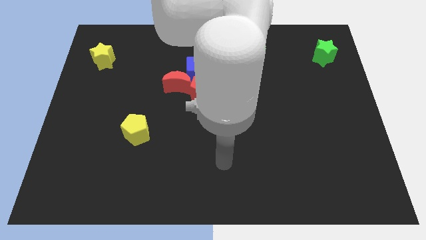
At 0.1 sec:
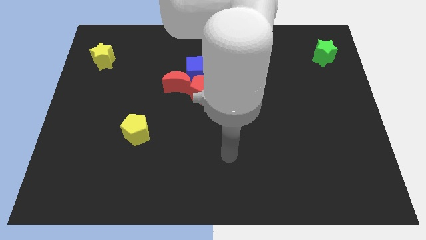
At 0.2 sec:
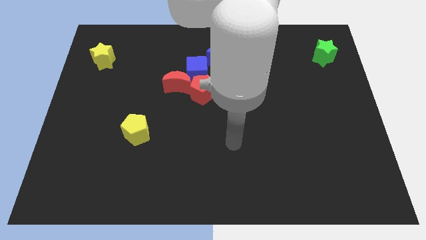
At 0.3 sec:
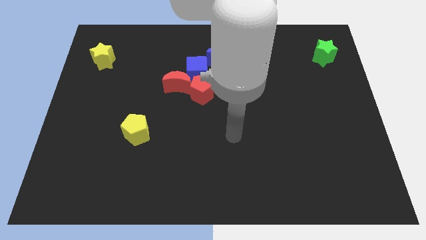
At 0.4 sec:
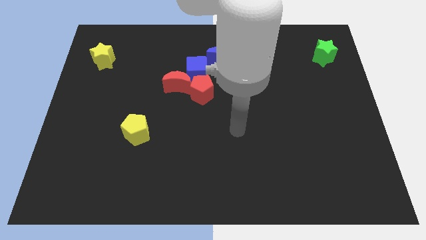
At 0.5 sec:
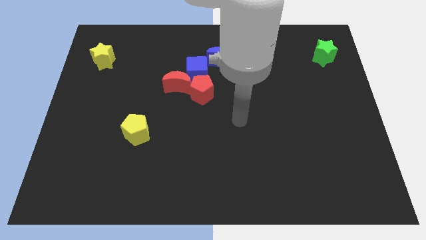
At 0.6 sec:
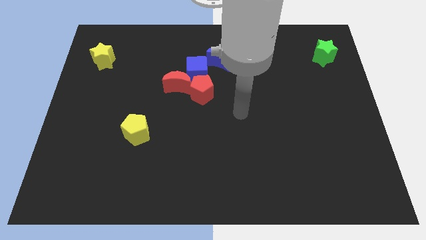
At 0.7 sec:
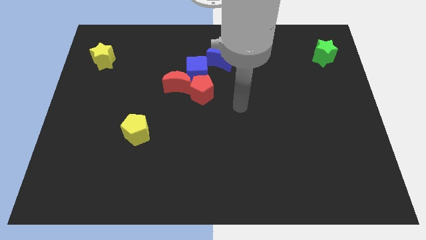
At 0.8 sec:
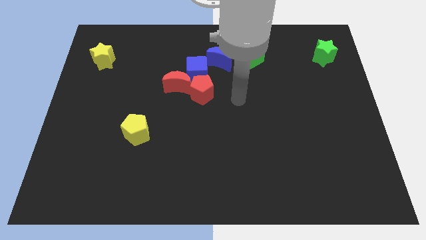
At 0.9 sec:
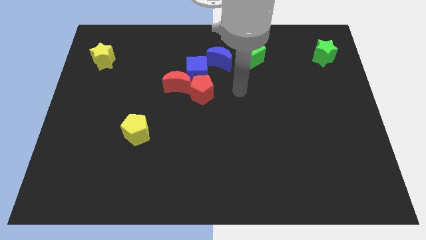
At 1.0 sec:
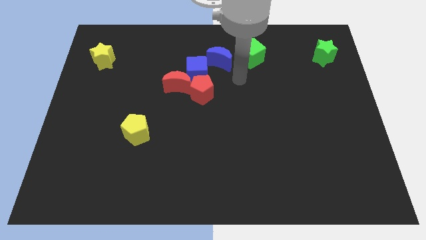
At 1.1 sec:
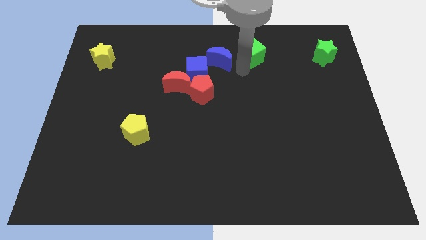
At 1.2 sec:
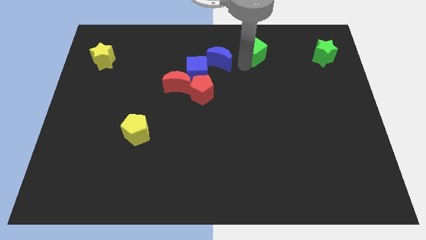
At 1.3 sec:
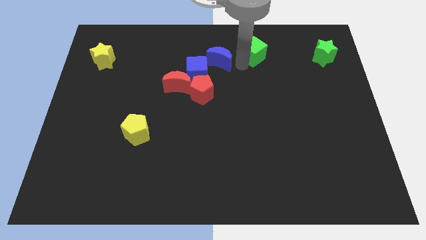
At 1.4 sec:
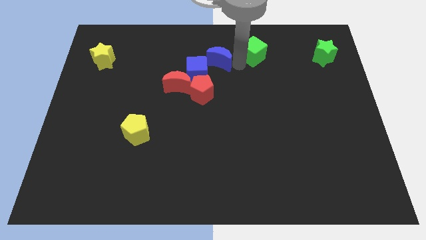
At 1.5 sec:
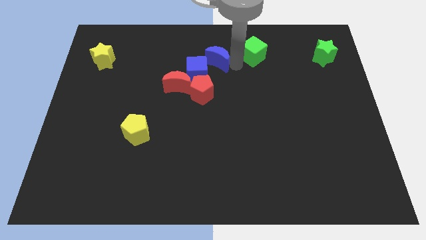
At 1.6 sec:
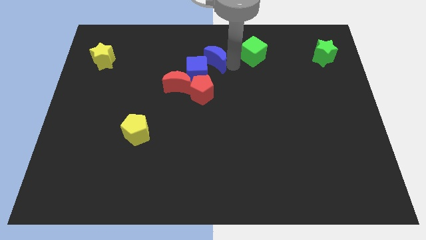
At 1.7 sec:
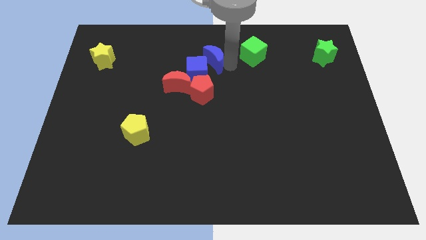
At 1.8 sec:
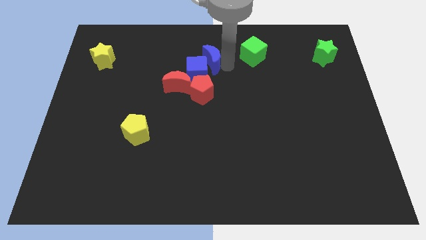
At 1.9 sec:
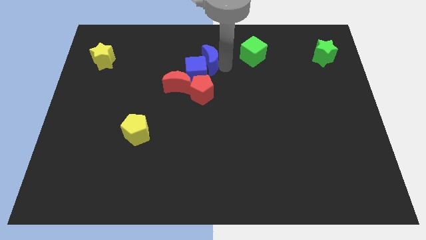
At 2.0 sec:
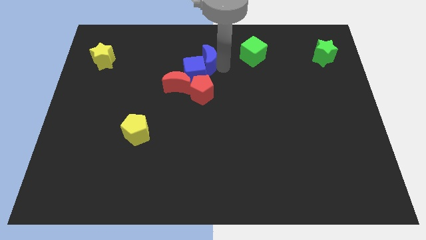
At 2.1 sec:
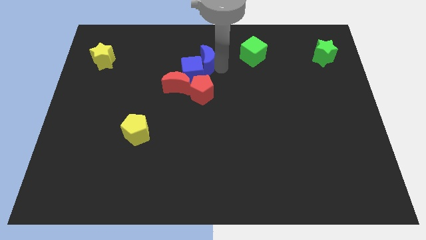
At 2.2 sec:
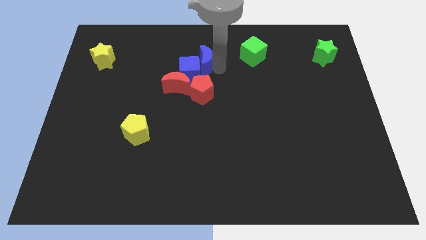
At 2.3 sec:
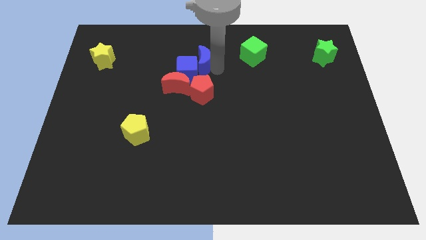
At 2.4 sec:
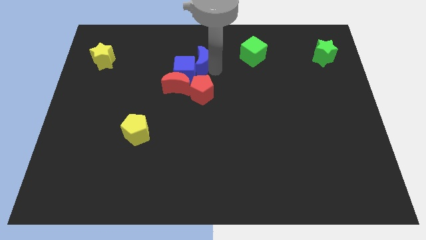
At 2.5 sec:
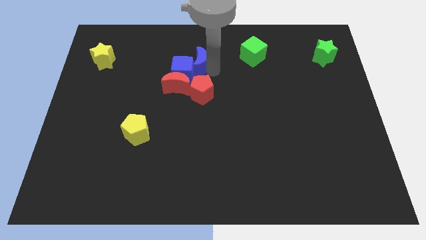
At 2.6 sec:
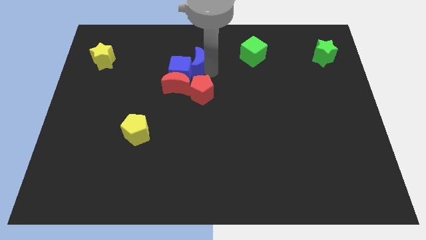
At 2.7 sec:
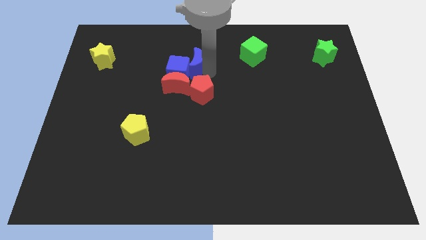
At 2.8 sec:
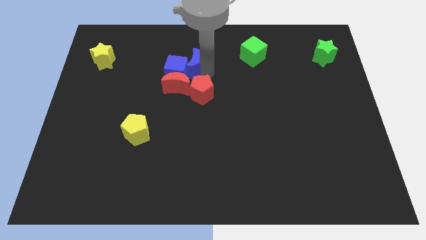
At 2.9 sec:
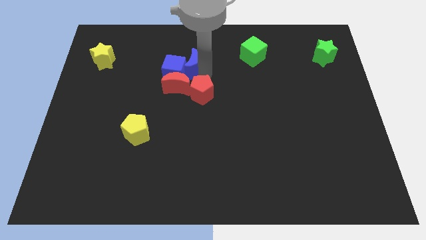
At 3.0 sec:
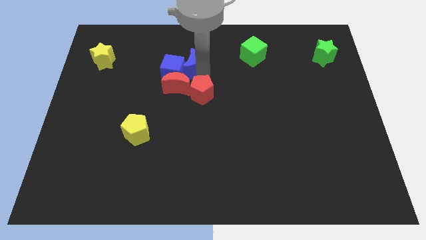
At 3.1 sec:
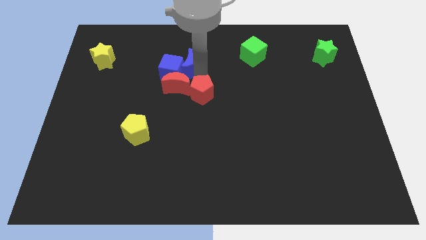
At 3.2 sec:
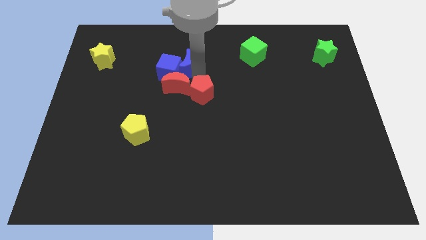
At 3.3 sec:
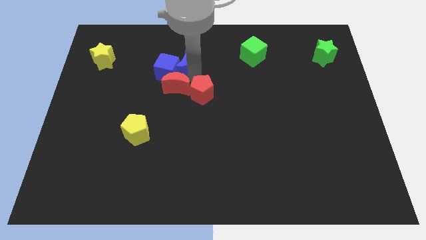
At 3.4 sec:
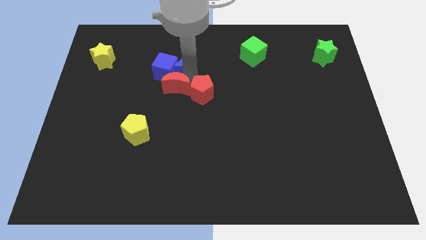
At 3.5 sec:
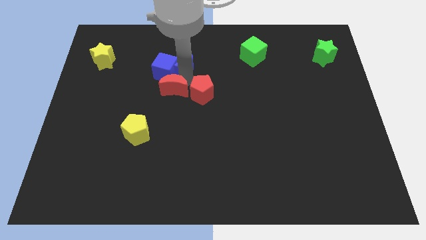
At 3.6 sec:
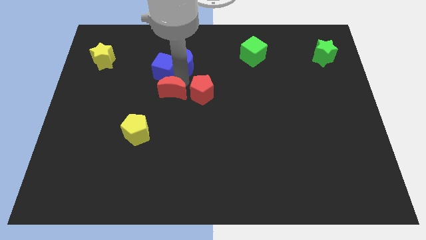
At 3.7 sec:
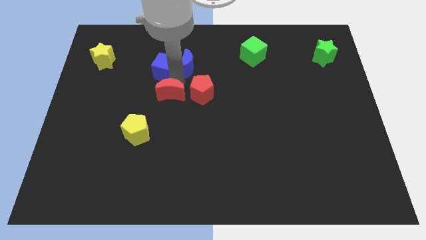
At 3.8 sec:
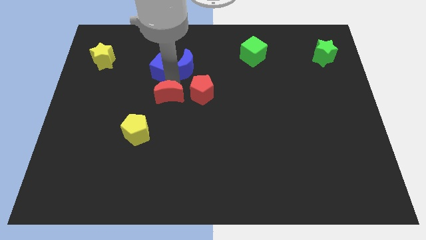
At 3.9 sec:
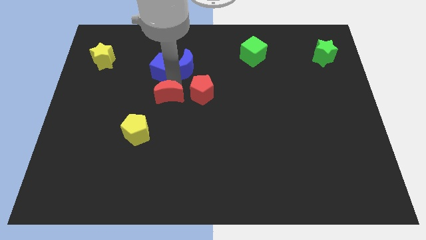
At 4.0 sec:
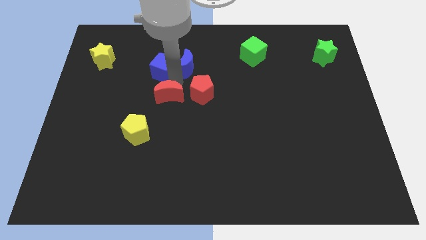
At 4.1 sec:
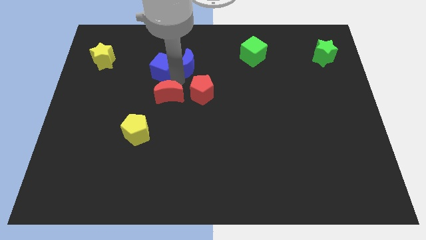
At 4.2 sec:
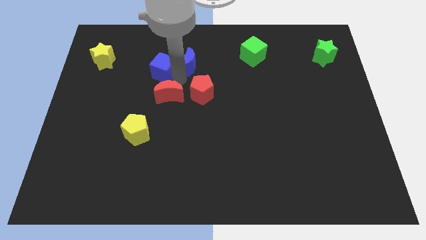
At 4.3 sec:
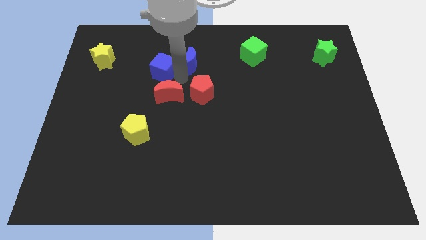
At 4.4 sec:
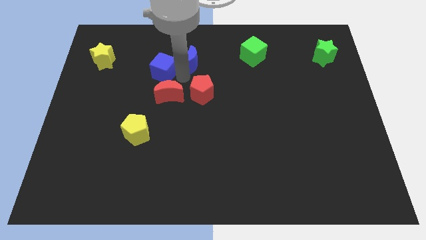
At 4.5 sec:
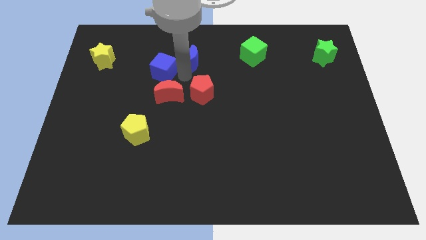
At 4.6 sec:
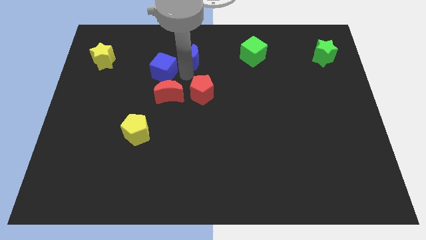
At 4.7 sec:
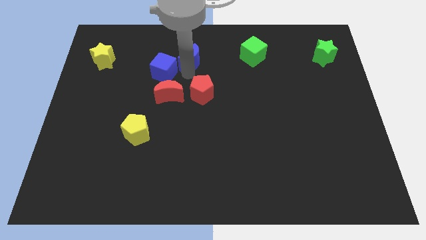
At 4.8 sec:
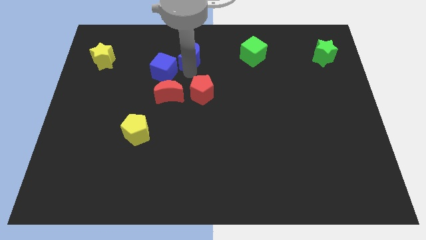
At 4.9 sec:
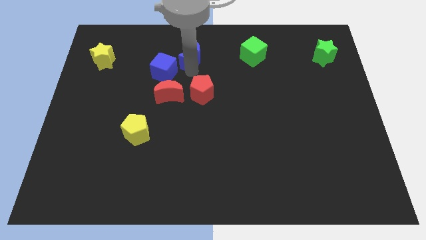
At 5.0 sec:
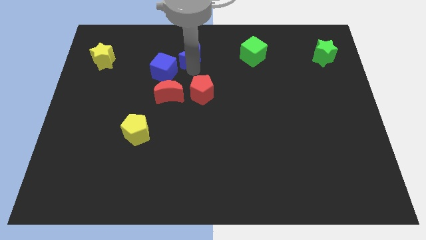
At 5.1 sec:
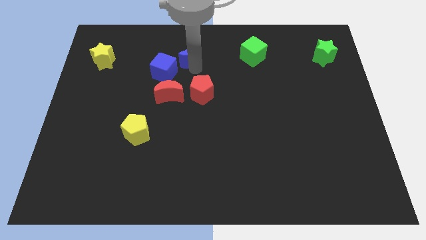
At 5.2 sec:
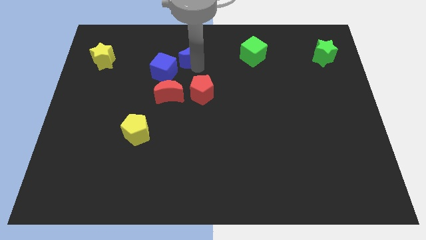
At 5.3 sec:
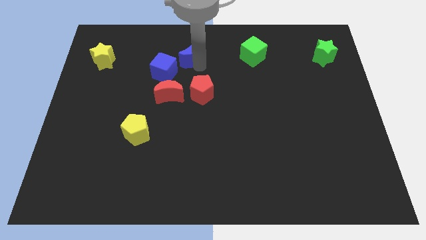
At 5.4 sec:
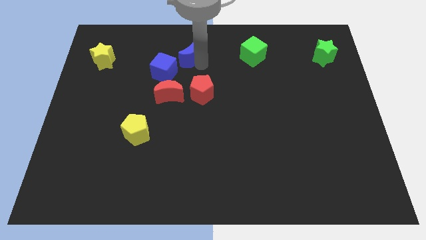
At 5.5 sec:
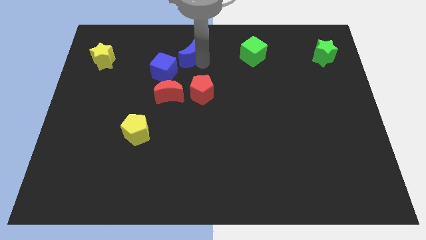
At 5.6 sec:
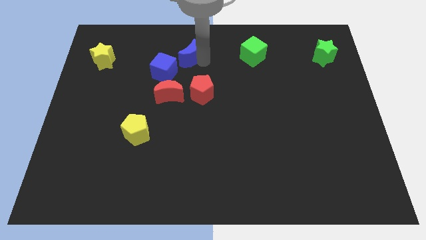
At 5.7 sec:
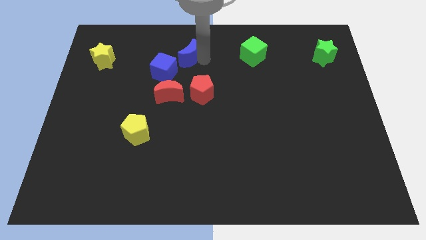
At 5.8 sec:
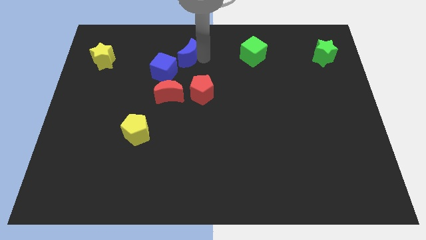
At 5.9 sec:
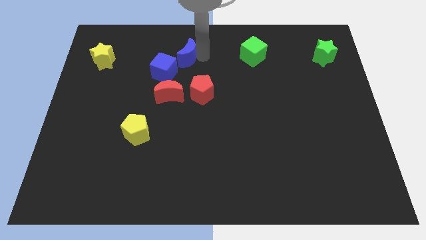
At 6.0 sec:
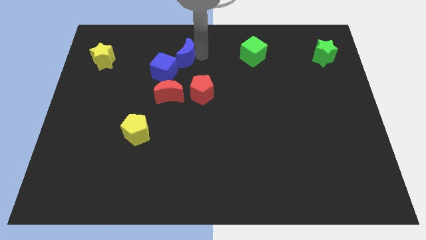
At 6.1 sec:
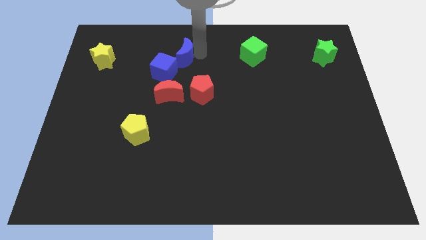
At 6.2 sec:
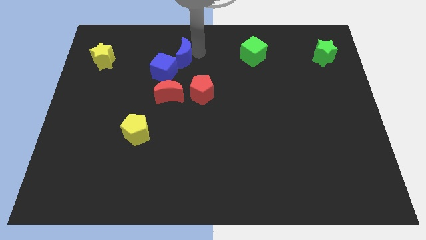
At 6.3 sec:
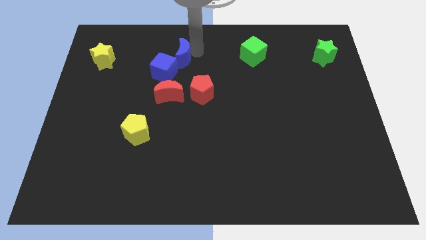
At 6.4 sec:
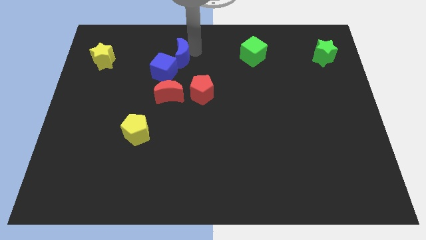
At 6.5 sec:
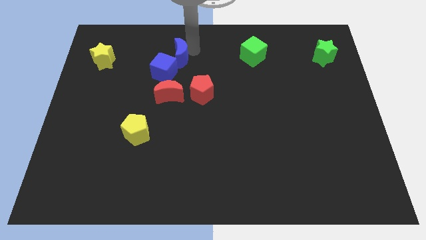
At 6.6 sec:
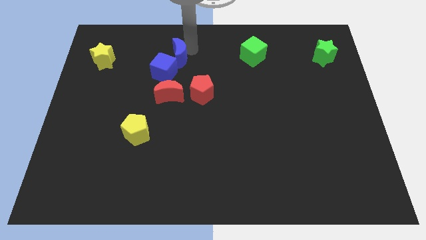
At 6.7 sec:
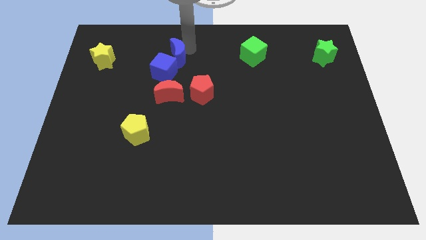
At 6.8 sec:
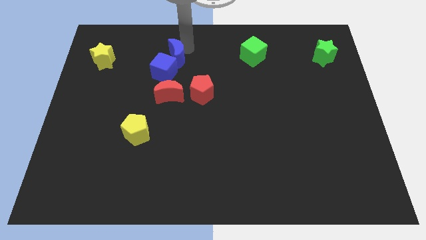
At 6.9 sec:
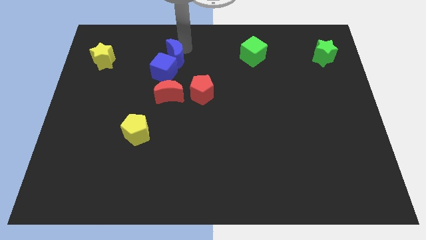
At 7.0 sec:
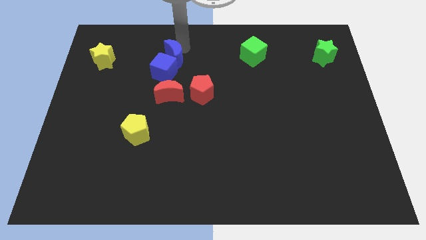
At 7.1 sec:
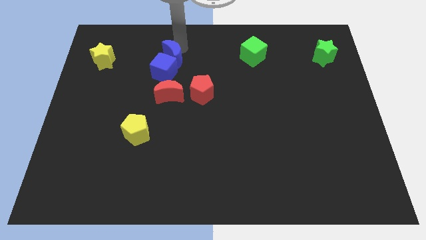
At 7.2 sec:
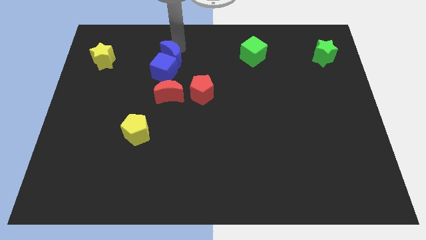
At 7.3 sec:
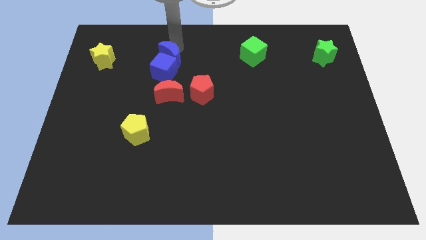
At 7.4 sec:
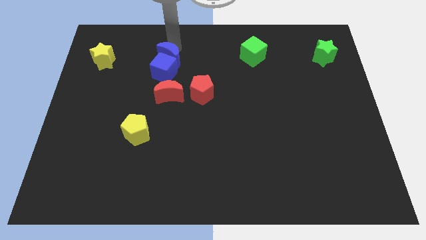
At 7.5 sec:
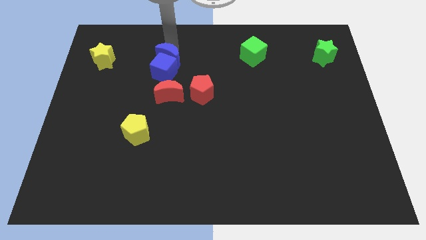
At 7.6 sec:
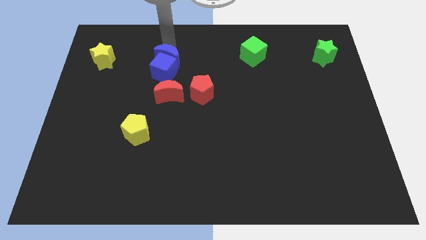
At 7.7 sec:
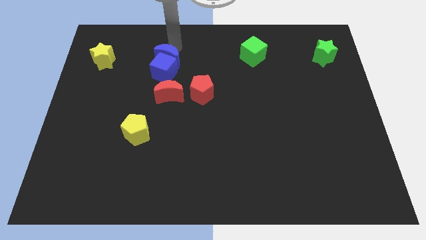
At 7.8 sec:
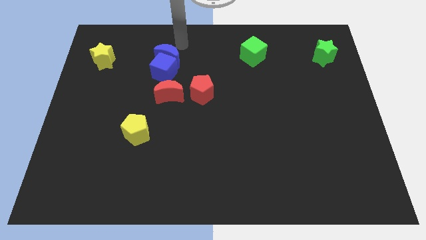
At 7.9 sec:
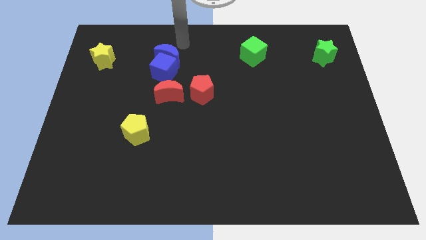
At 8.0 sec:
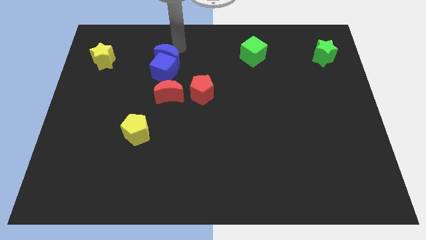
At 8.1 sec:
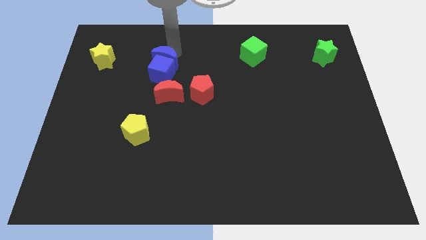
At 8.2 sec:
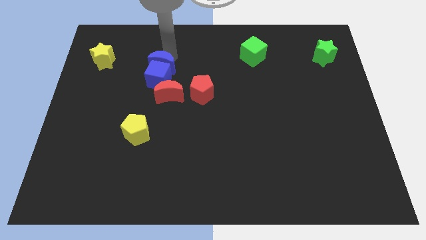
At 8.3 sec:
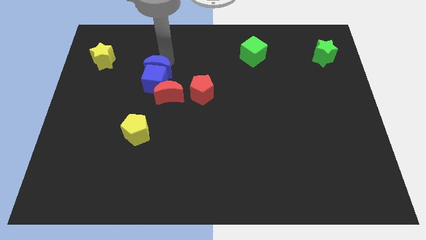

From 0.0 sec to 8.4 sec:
slide the blue moon to the top left side of the red moon

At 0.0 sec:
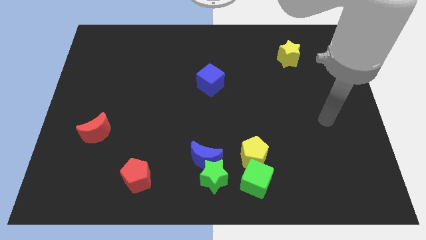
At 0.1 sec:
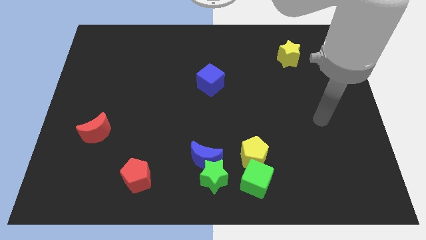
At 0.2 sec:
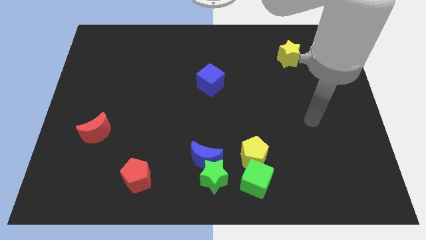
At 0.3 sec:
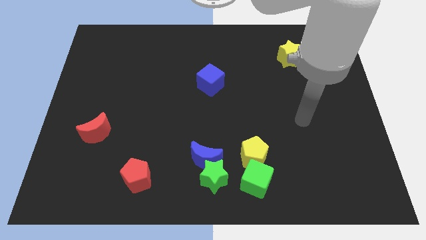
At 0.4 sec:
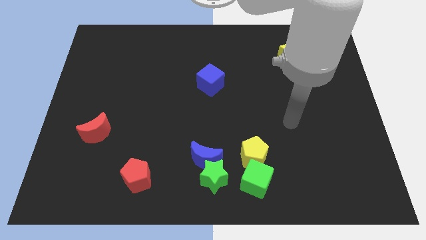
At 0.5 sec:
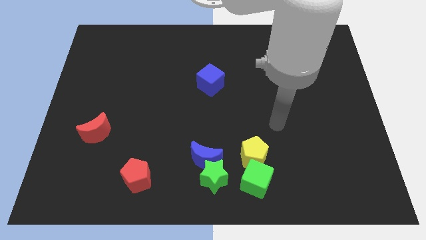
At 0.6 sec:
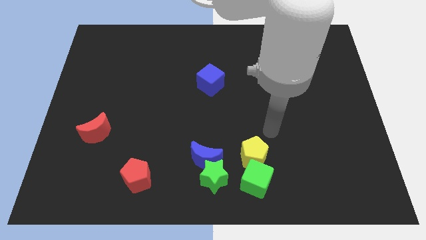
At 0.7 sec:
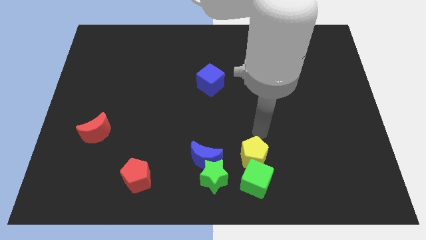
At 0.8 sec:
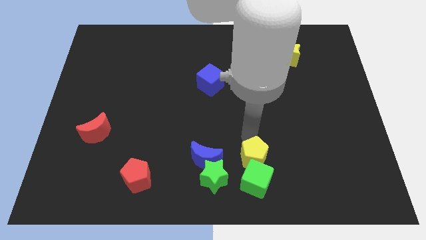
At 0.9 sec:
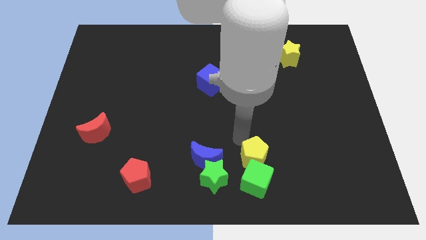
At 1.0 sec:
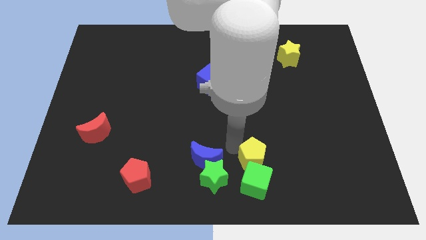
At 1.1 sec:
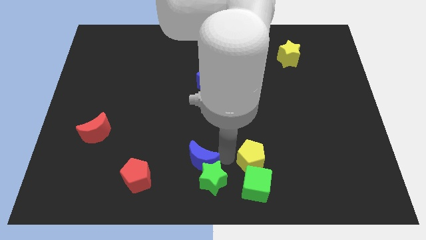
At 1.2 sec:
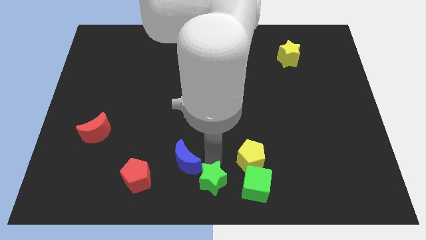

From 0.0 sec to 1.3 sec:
put the green star right of the blue moon
